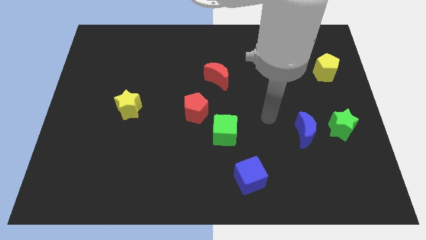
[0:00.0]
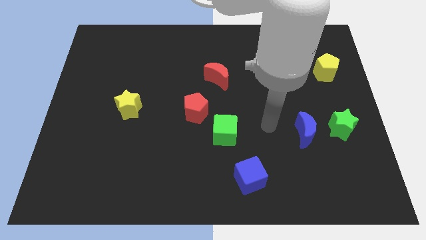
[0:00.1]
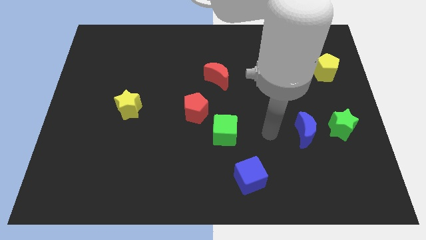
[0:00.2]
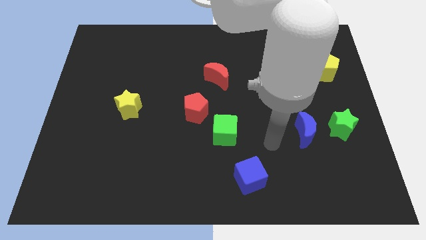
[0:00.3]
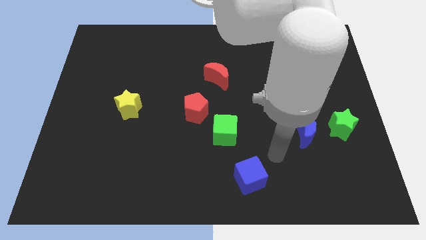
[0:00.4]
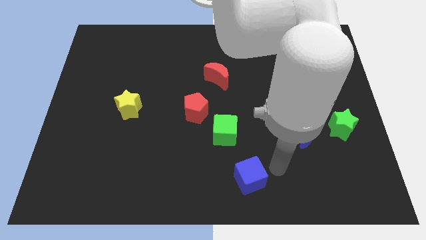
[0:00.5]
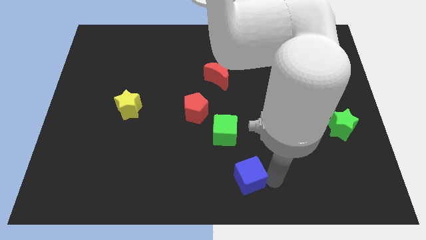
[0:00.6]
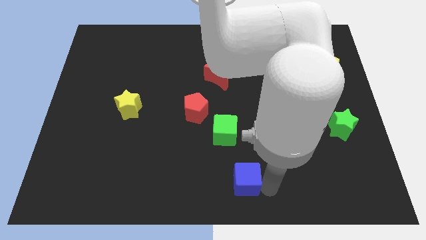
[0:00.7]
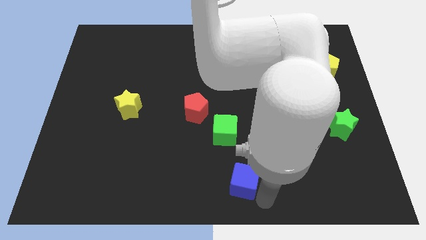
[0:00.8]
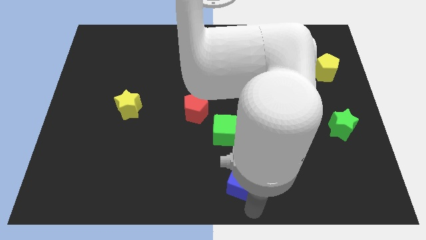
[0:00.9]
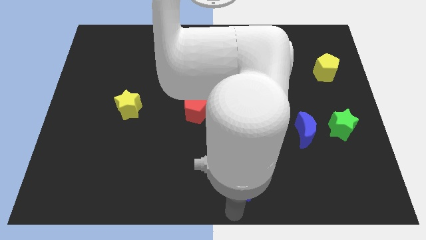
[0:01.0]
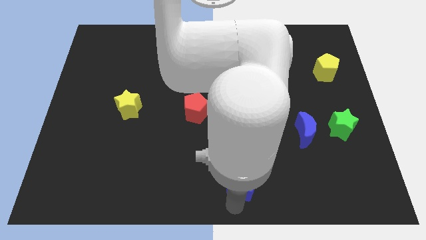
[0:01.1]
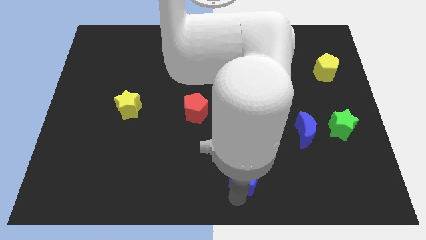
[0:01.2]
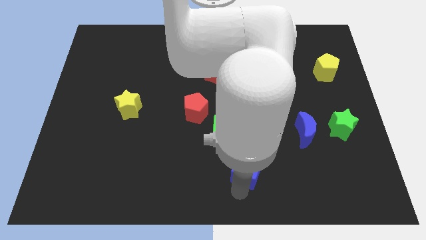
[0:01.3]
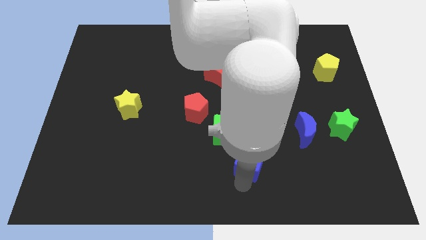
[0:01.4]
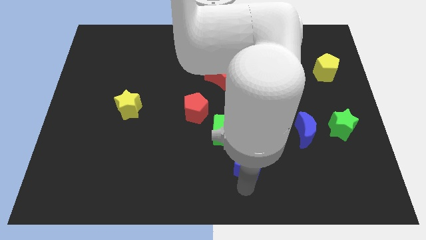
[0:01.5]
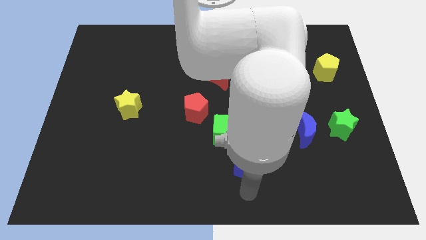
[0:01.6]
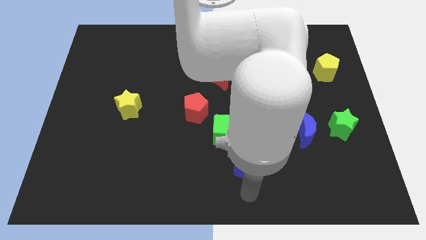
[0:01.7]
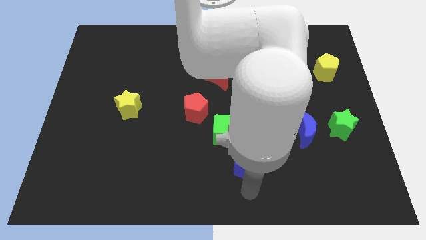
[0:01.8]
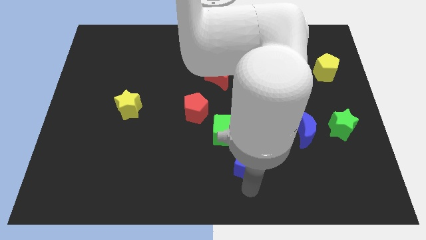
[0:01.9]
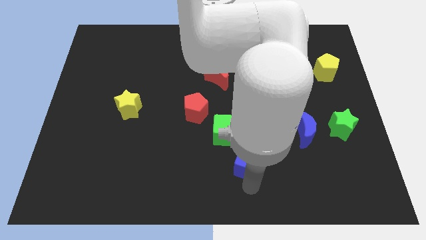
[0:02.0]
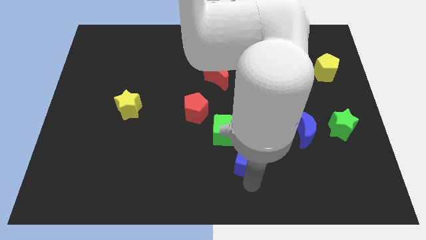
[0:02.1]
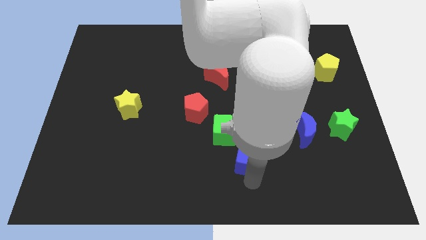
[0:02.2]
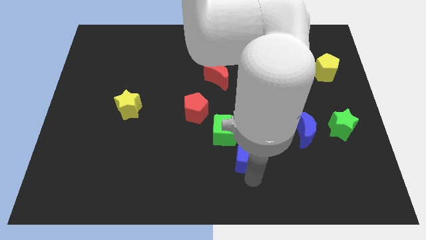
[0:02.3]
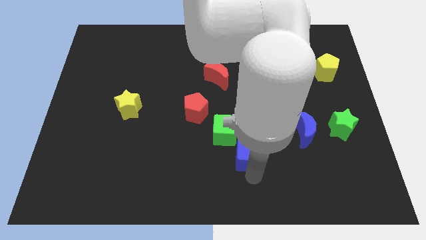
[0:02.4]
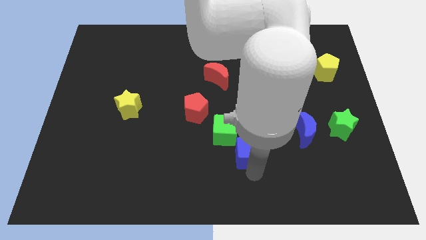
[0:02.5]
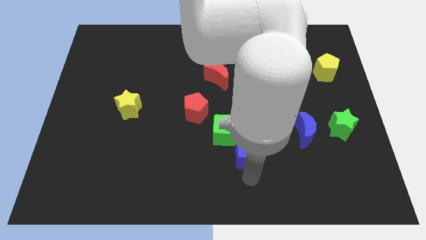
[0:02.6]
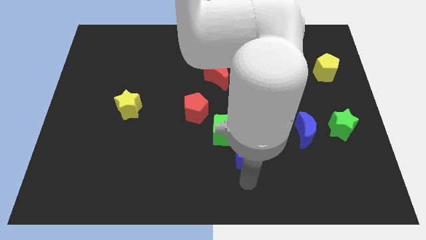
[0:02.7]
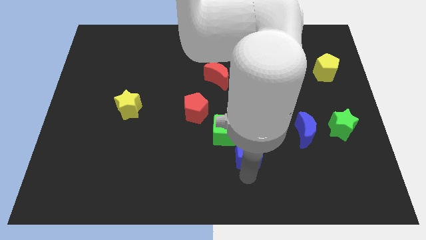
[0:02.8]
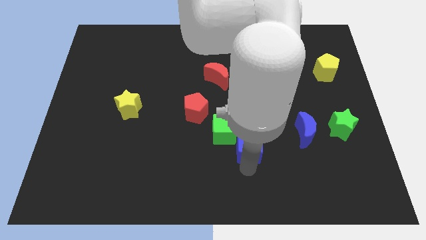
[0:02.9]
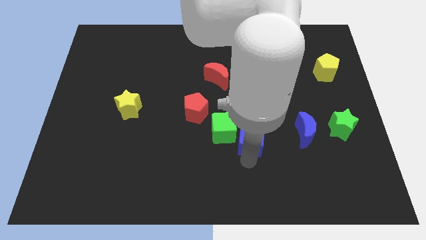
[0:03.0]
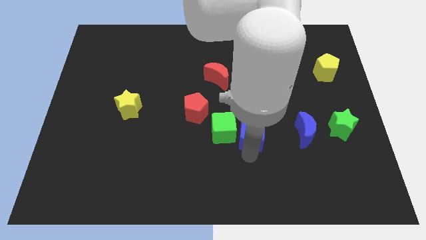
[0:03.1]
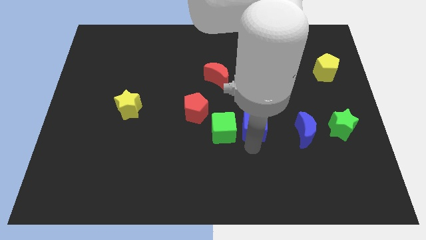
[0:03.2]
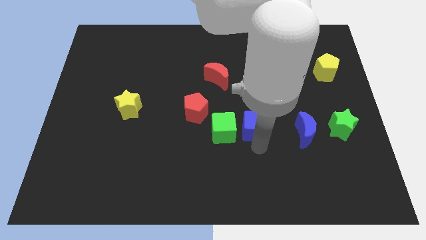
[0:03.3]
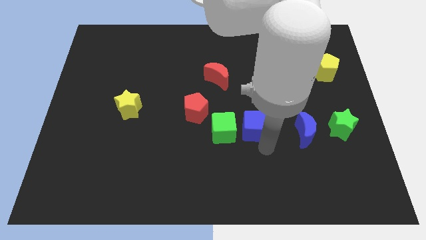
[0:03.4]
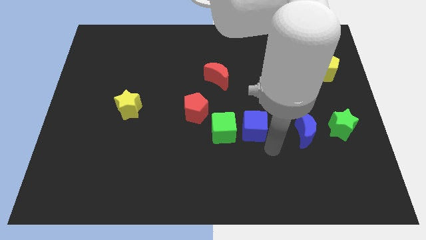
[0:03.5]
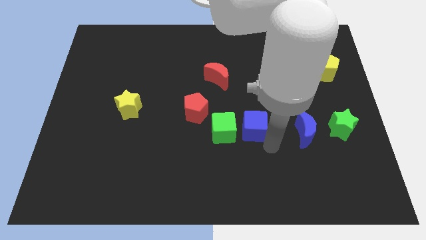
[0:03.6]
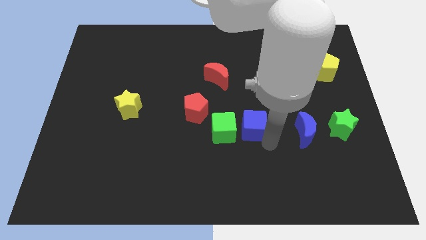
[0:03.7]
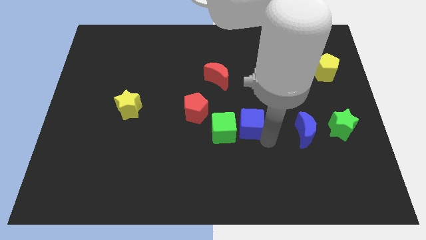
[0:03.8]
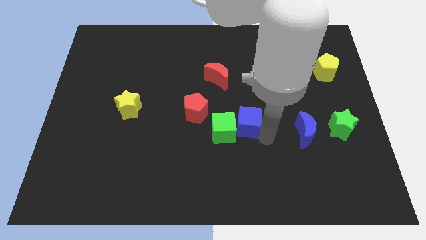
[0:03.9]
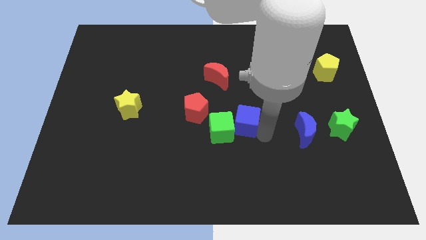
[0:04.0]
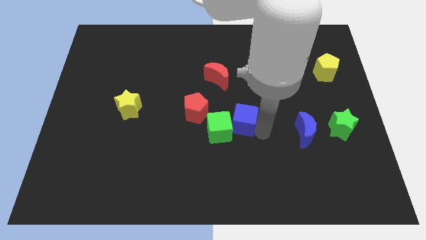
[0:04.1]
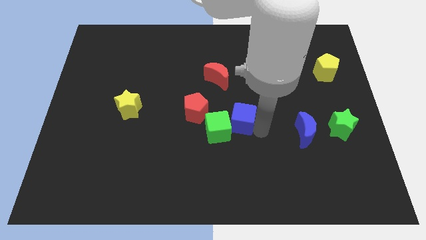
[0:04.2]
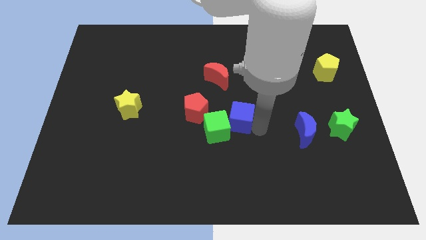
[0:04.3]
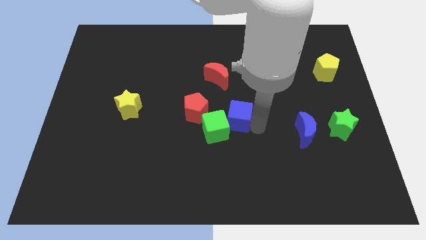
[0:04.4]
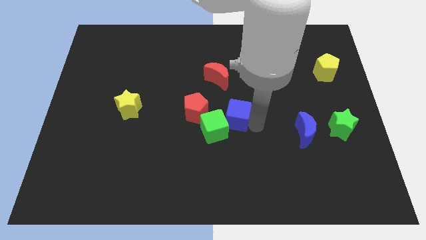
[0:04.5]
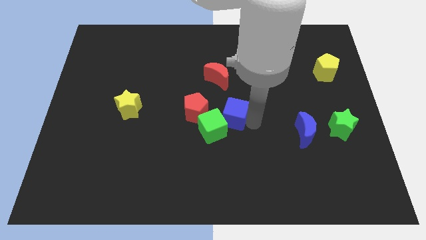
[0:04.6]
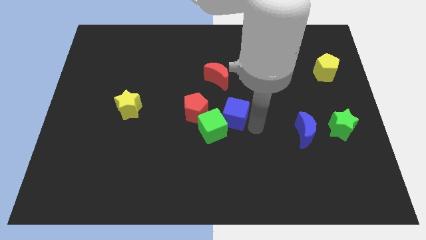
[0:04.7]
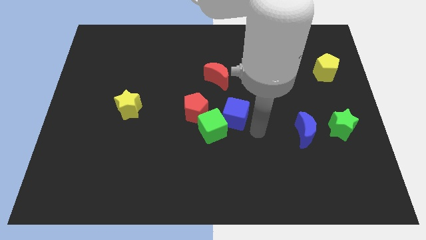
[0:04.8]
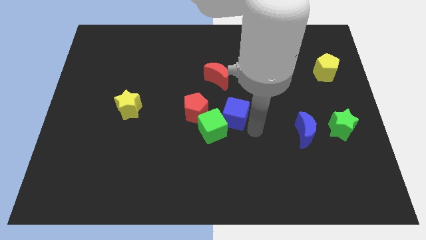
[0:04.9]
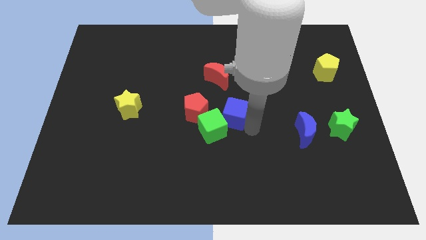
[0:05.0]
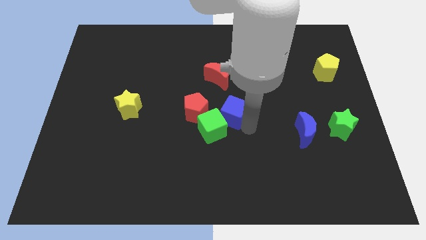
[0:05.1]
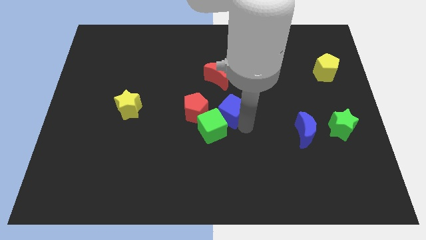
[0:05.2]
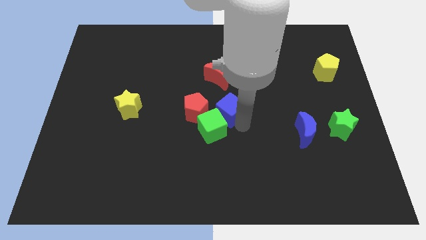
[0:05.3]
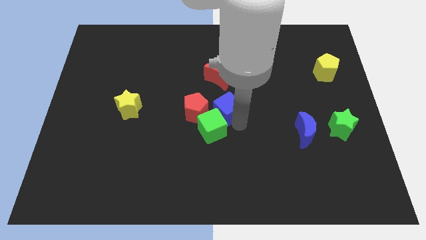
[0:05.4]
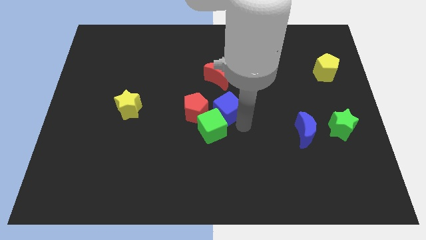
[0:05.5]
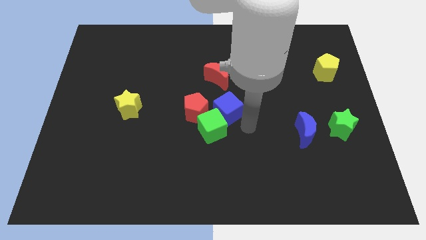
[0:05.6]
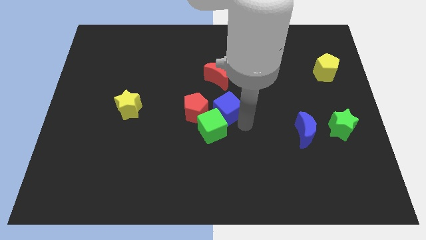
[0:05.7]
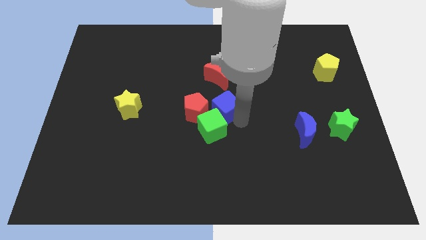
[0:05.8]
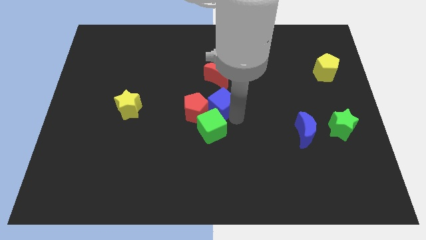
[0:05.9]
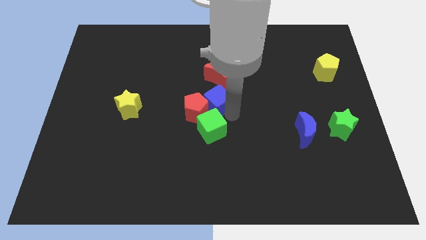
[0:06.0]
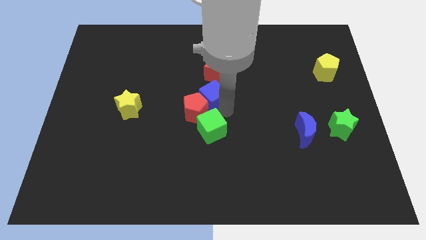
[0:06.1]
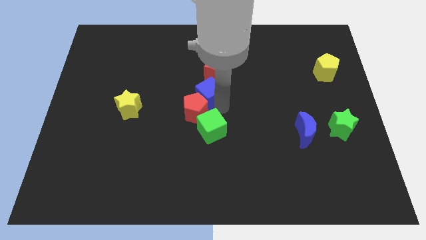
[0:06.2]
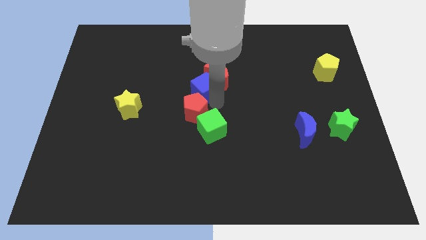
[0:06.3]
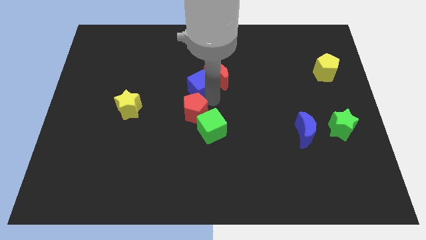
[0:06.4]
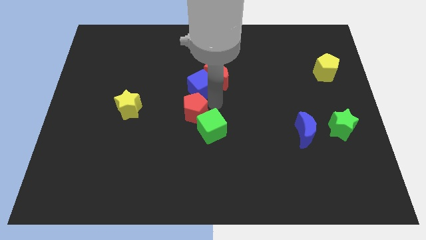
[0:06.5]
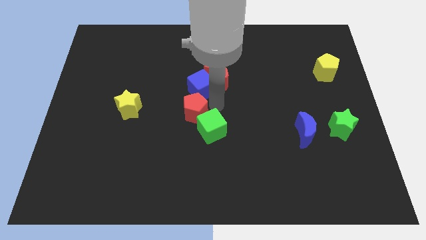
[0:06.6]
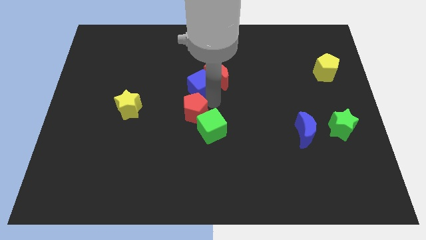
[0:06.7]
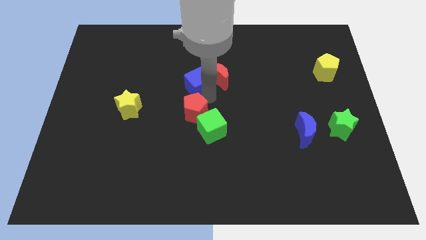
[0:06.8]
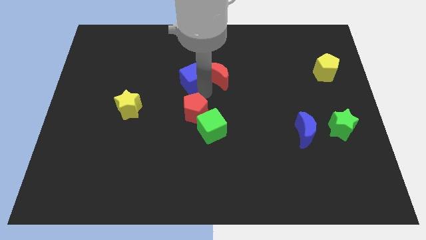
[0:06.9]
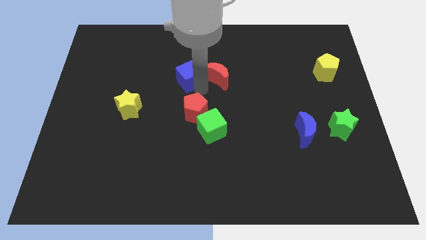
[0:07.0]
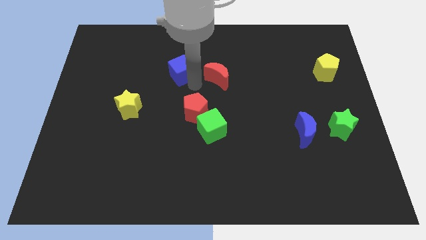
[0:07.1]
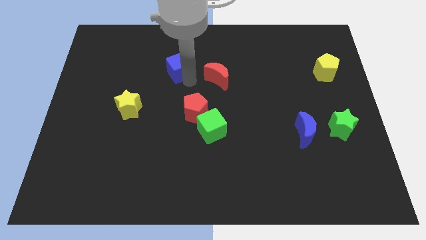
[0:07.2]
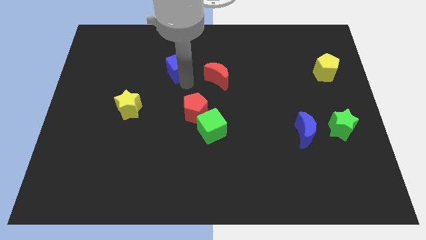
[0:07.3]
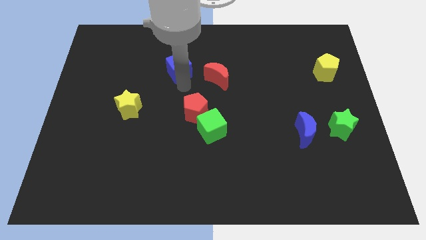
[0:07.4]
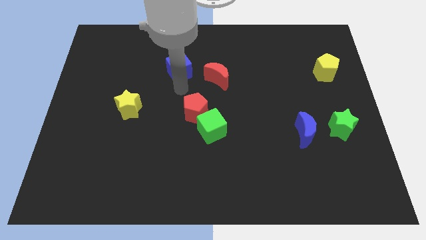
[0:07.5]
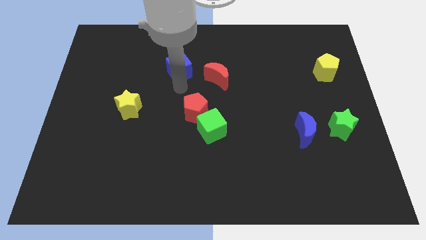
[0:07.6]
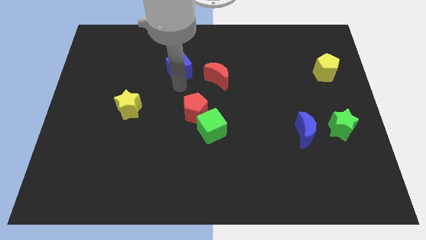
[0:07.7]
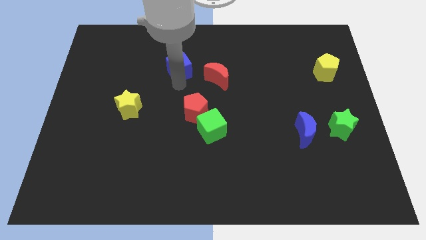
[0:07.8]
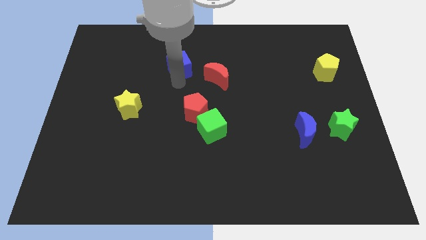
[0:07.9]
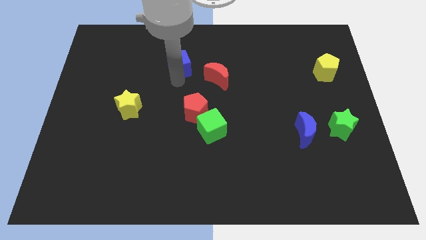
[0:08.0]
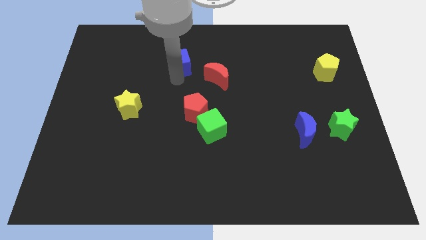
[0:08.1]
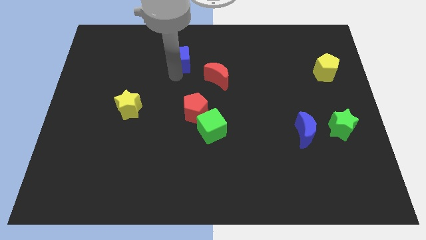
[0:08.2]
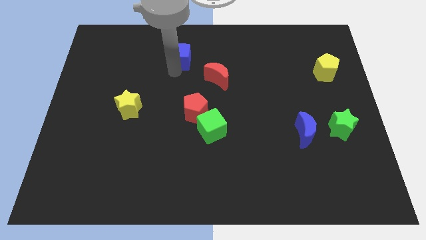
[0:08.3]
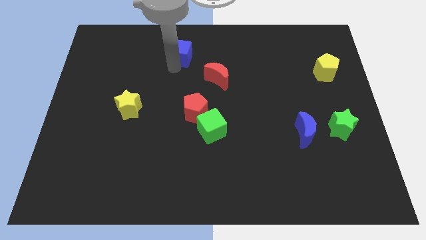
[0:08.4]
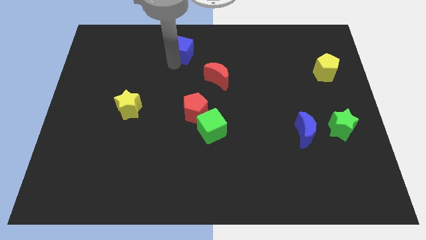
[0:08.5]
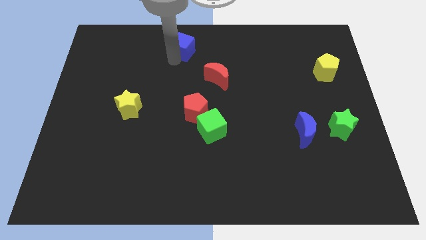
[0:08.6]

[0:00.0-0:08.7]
put the blue cube to the towards your base
